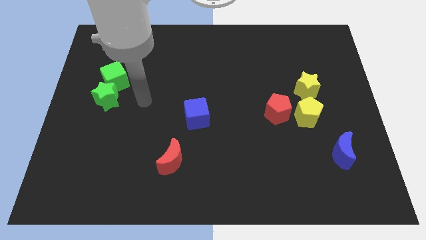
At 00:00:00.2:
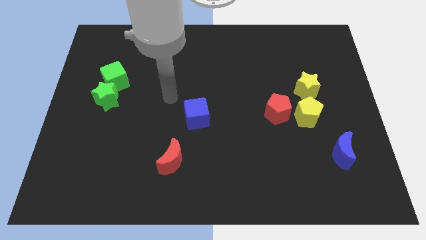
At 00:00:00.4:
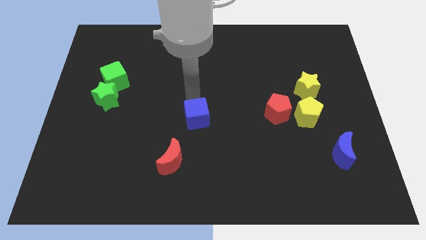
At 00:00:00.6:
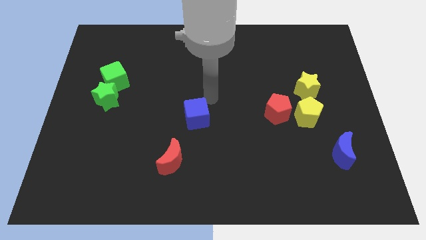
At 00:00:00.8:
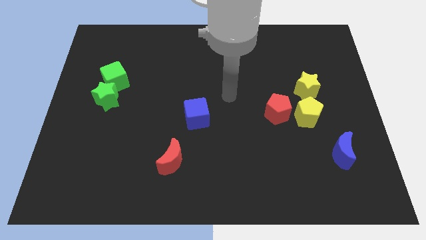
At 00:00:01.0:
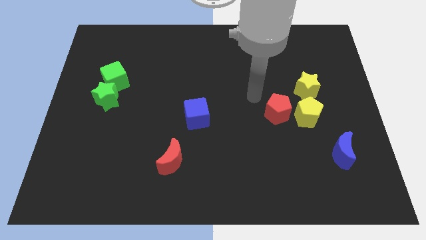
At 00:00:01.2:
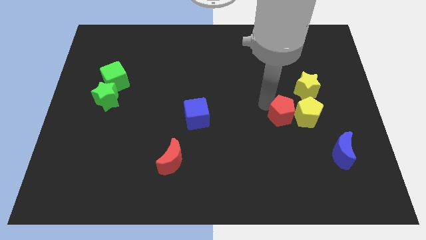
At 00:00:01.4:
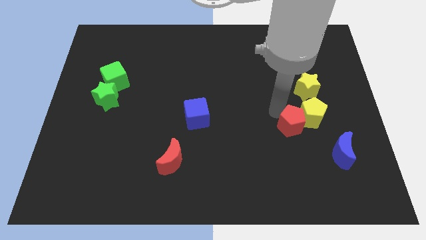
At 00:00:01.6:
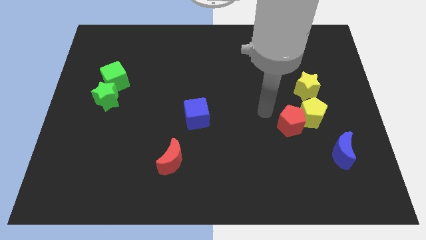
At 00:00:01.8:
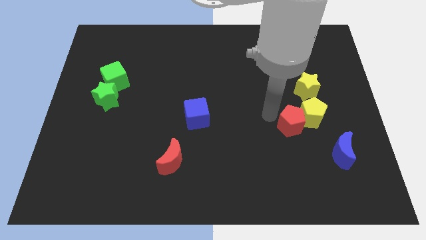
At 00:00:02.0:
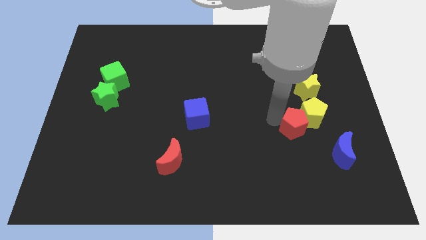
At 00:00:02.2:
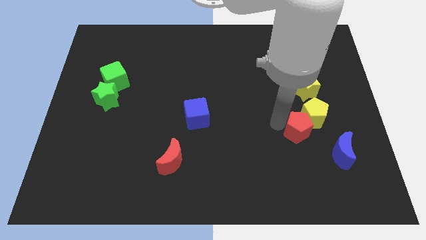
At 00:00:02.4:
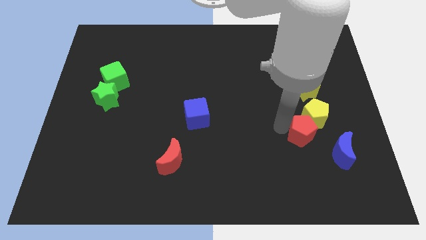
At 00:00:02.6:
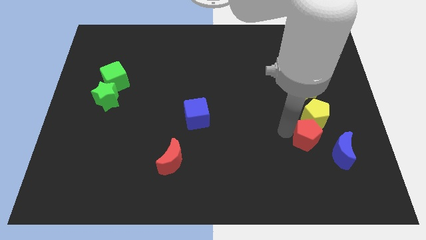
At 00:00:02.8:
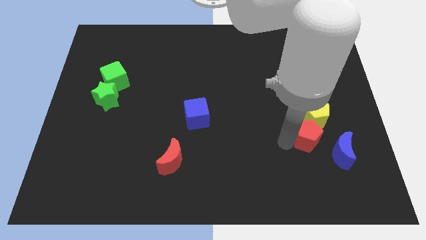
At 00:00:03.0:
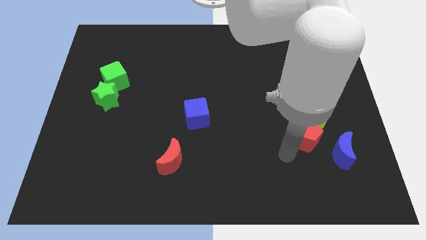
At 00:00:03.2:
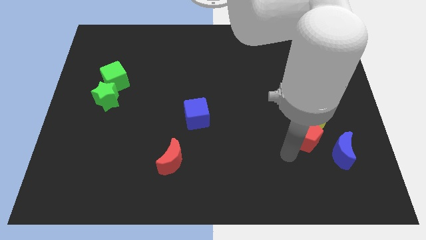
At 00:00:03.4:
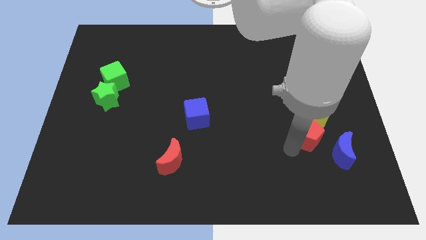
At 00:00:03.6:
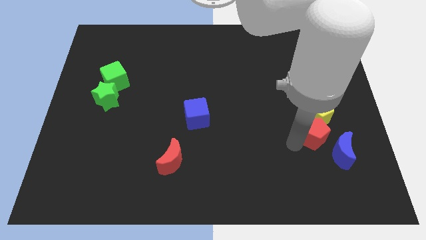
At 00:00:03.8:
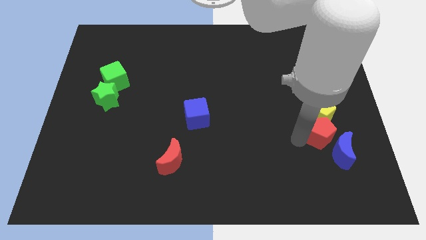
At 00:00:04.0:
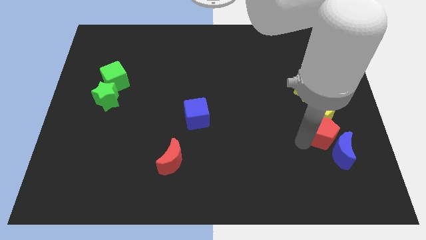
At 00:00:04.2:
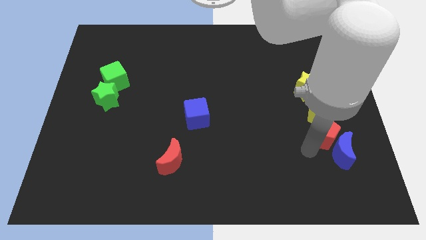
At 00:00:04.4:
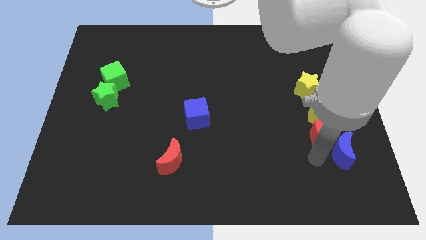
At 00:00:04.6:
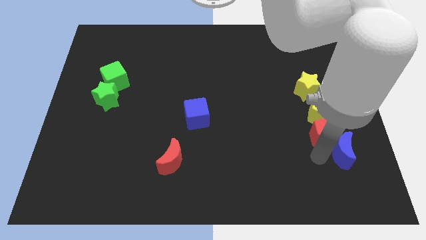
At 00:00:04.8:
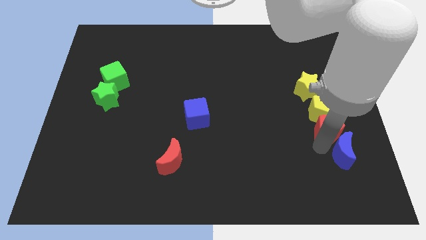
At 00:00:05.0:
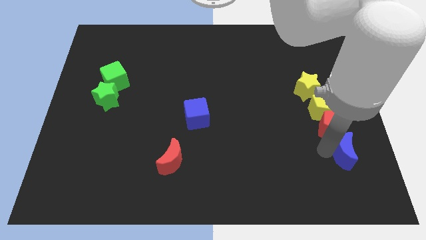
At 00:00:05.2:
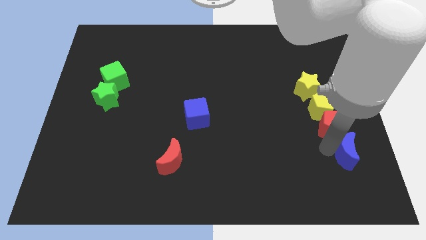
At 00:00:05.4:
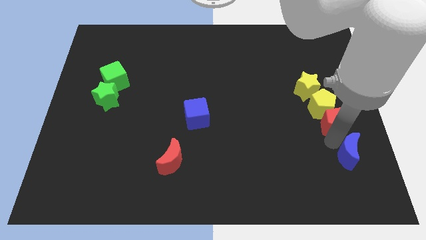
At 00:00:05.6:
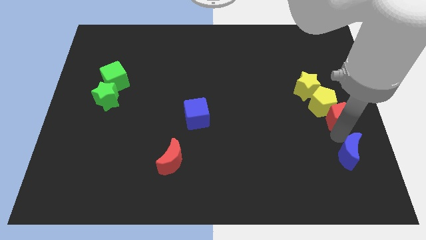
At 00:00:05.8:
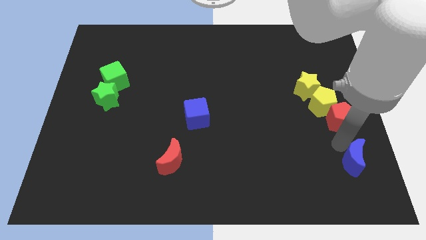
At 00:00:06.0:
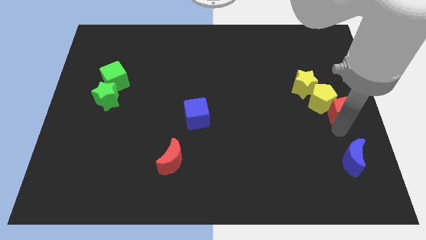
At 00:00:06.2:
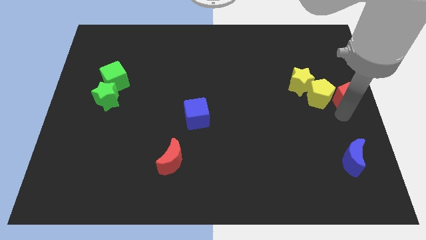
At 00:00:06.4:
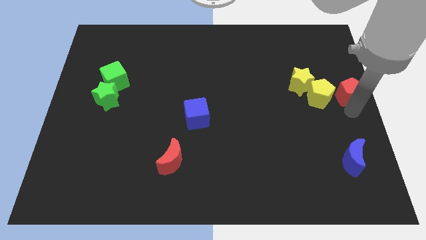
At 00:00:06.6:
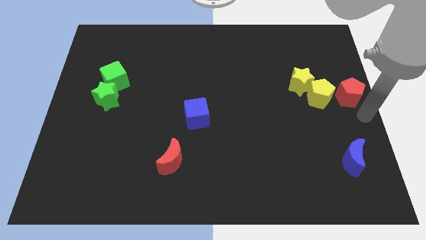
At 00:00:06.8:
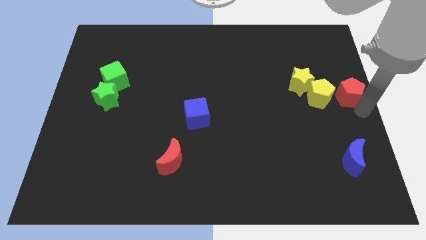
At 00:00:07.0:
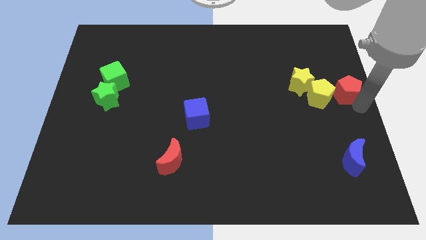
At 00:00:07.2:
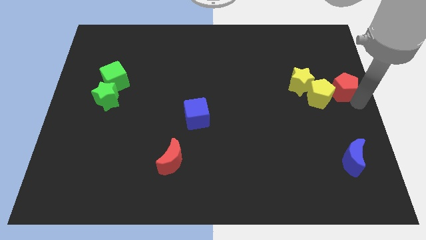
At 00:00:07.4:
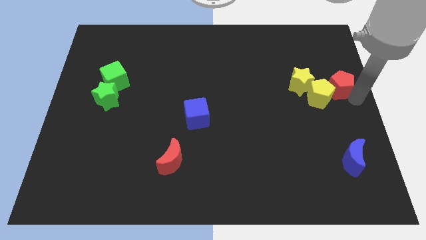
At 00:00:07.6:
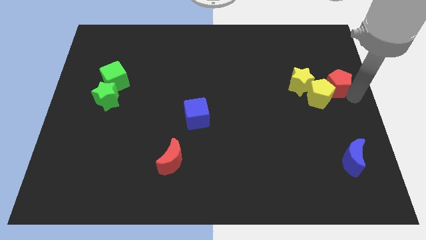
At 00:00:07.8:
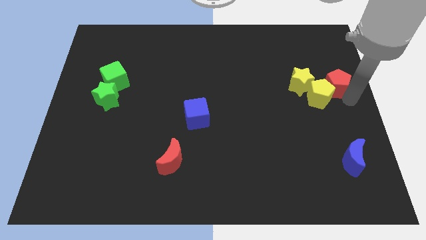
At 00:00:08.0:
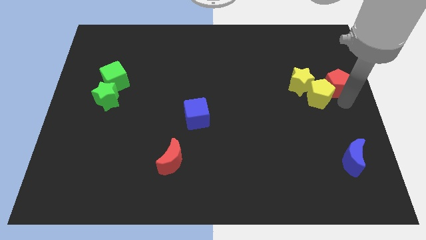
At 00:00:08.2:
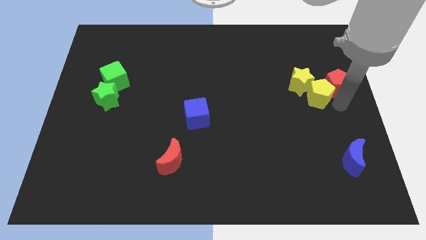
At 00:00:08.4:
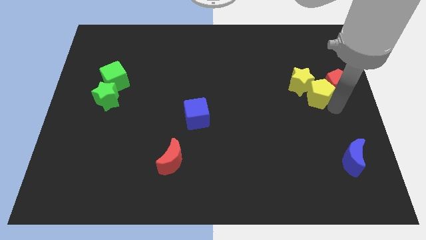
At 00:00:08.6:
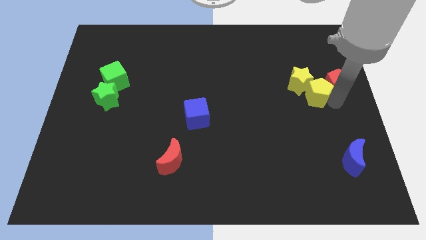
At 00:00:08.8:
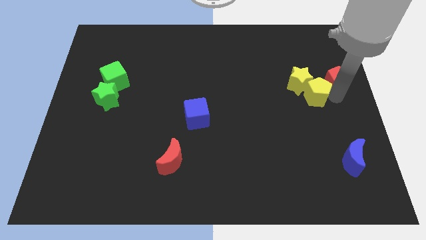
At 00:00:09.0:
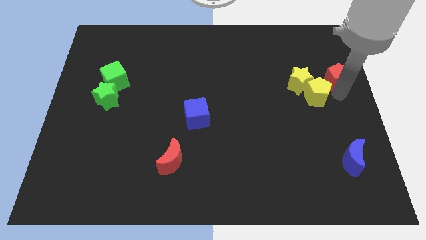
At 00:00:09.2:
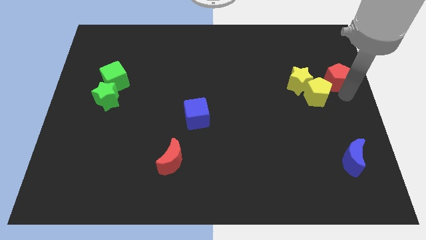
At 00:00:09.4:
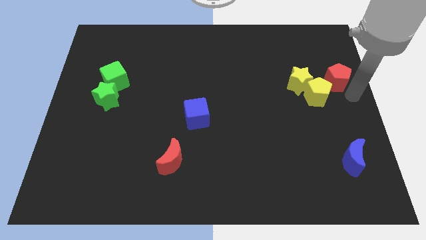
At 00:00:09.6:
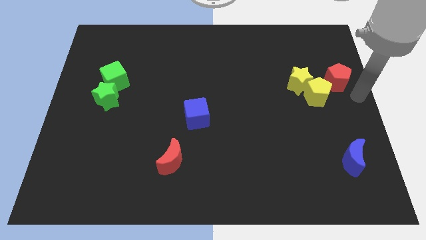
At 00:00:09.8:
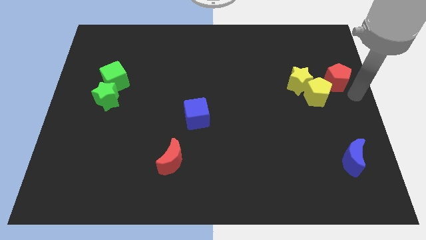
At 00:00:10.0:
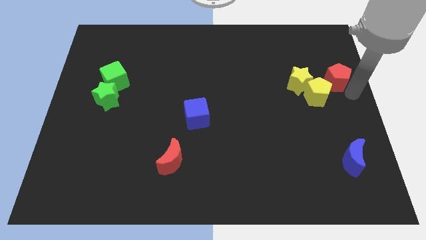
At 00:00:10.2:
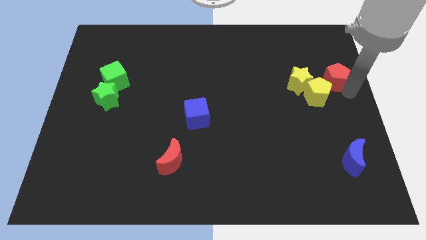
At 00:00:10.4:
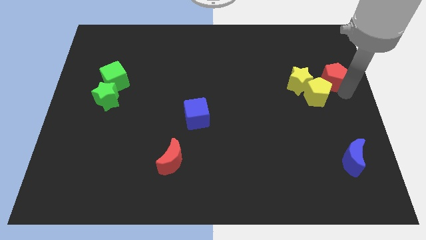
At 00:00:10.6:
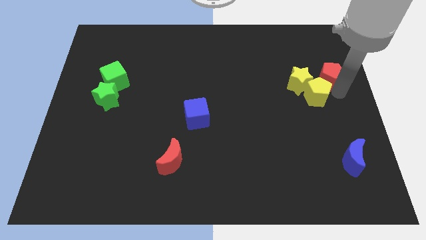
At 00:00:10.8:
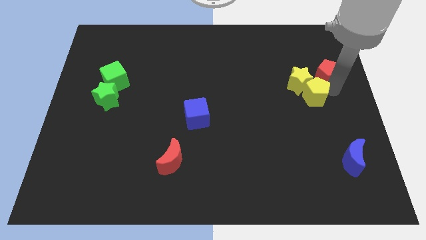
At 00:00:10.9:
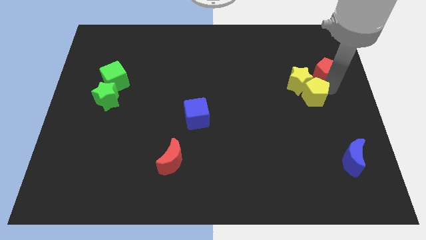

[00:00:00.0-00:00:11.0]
move the red pentagon to the top right of the yellow pentagon

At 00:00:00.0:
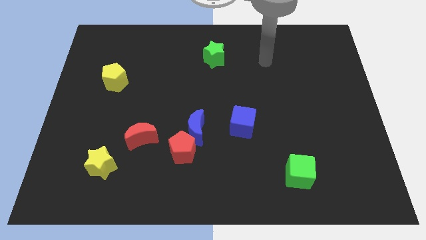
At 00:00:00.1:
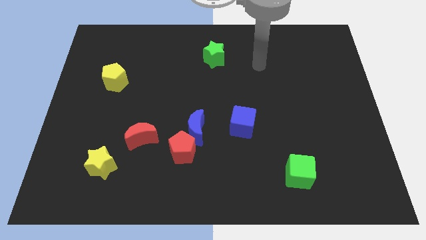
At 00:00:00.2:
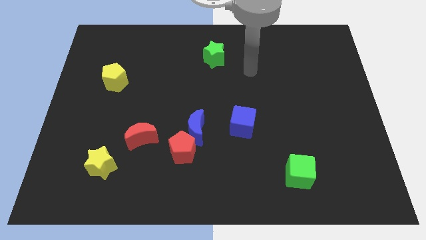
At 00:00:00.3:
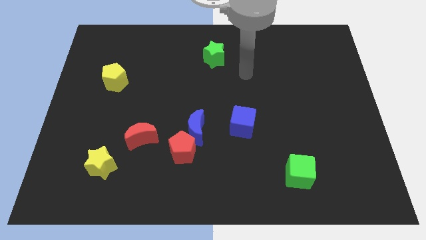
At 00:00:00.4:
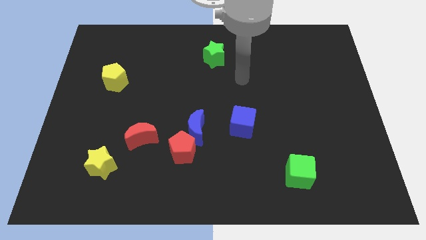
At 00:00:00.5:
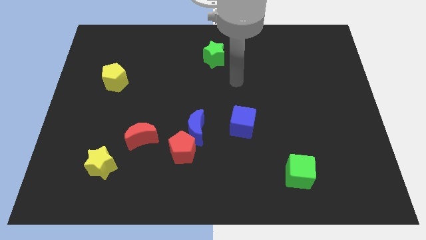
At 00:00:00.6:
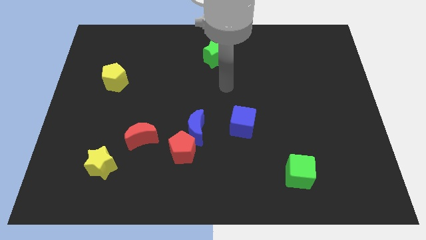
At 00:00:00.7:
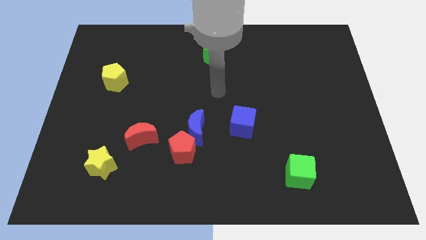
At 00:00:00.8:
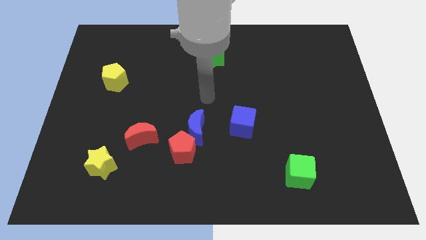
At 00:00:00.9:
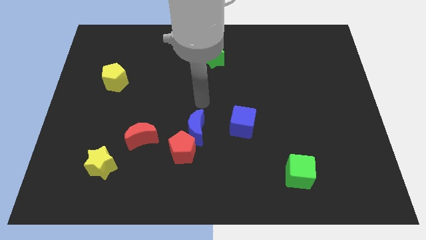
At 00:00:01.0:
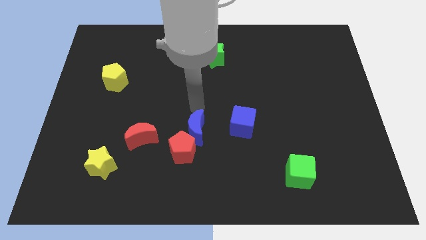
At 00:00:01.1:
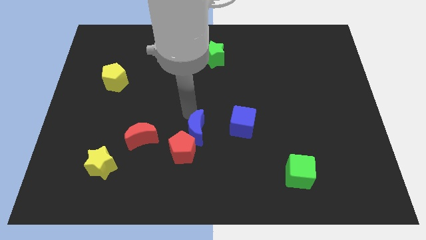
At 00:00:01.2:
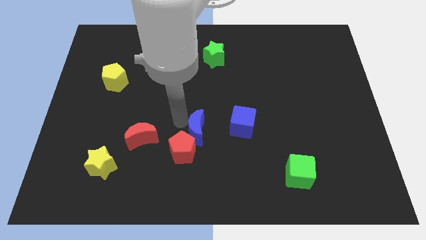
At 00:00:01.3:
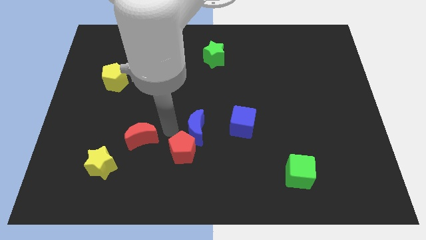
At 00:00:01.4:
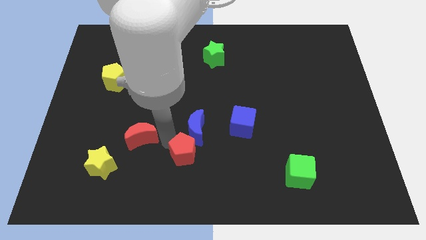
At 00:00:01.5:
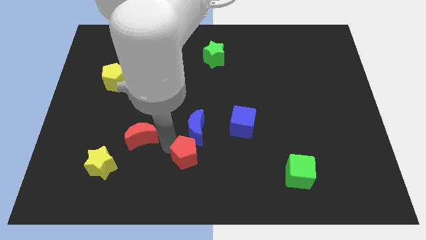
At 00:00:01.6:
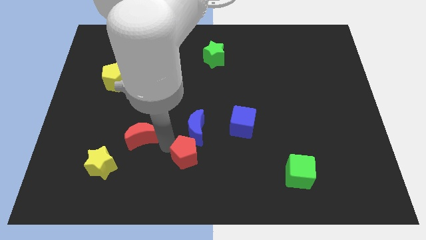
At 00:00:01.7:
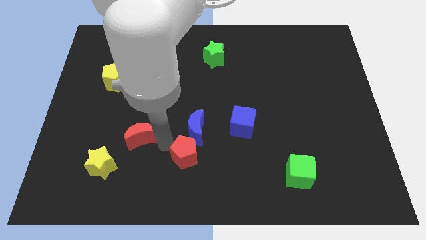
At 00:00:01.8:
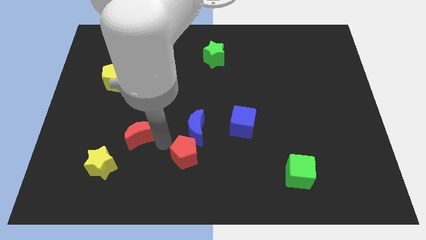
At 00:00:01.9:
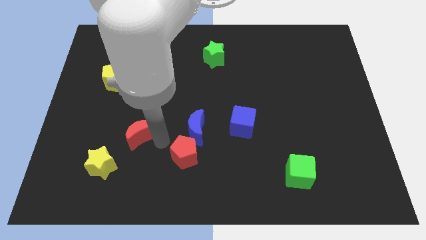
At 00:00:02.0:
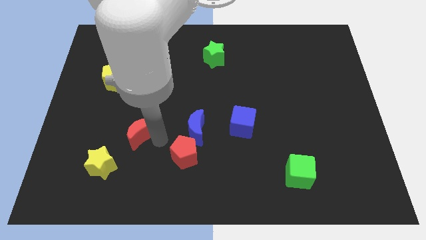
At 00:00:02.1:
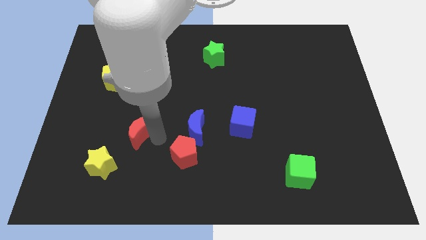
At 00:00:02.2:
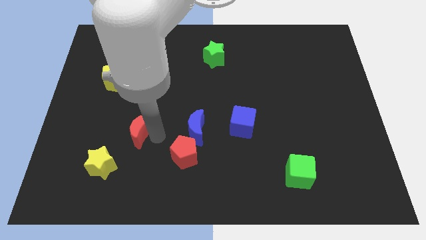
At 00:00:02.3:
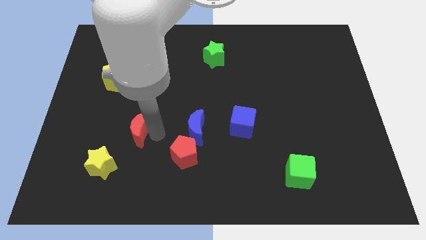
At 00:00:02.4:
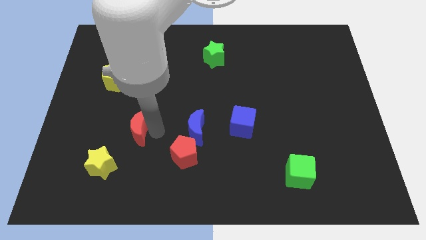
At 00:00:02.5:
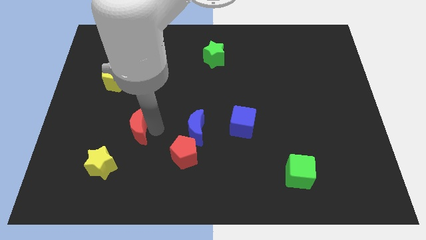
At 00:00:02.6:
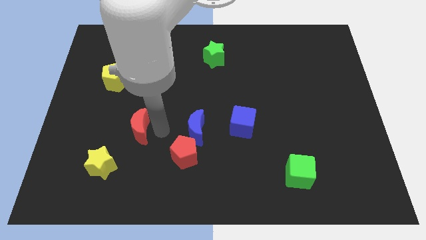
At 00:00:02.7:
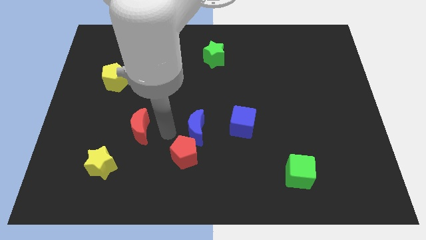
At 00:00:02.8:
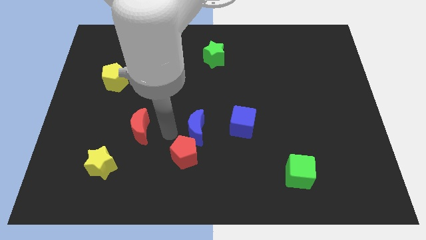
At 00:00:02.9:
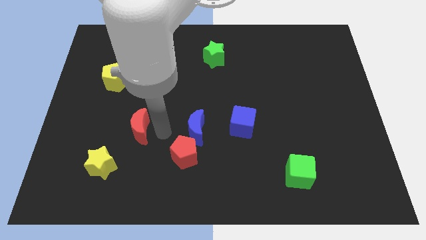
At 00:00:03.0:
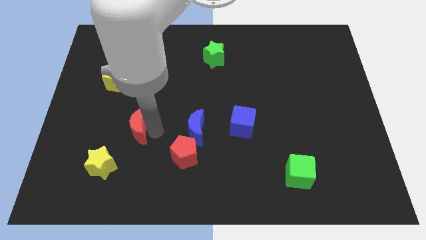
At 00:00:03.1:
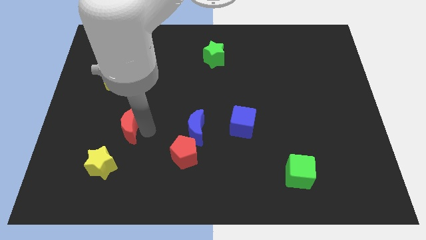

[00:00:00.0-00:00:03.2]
slide the red moon to the top of the yellow star
